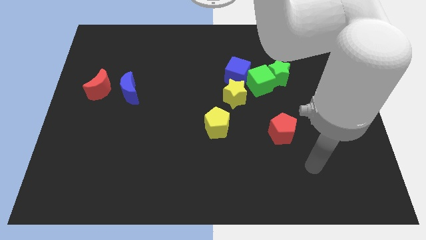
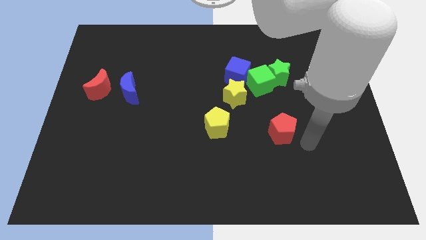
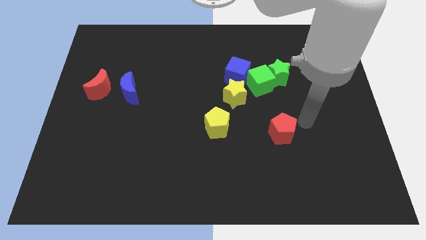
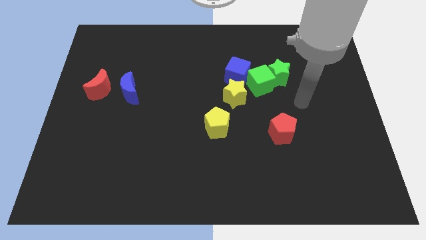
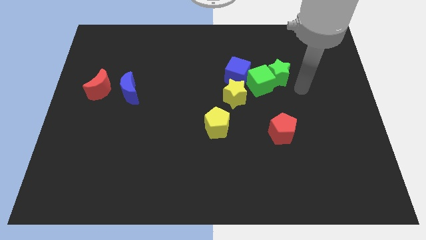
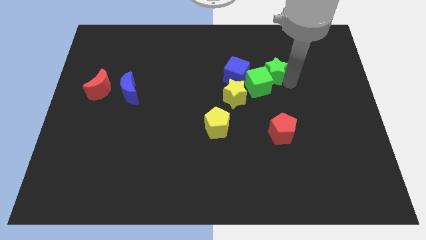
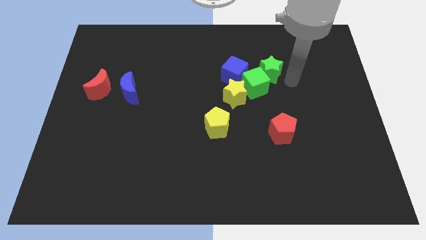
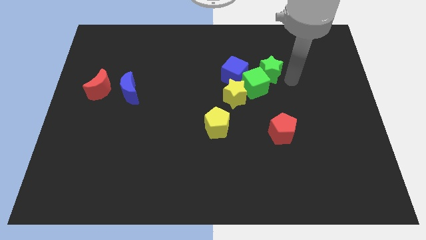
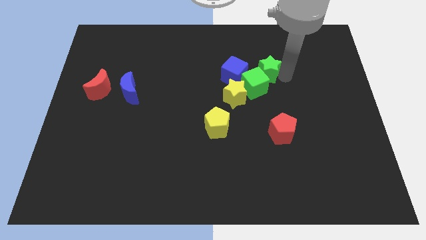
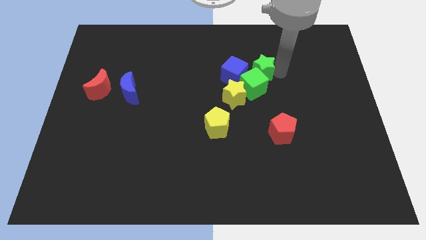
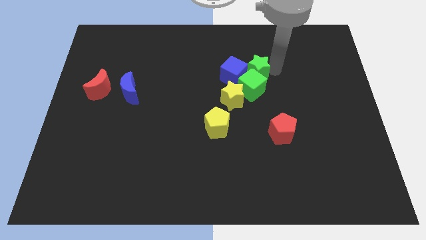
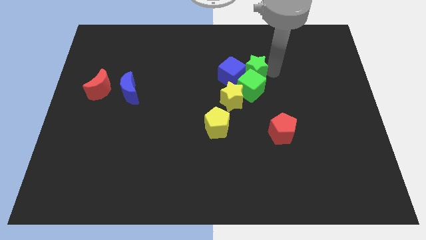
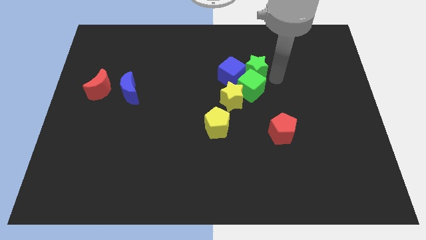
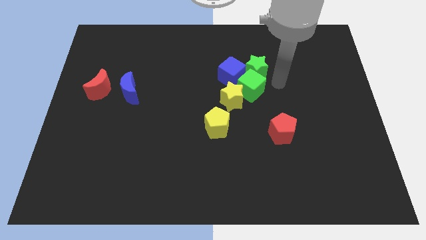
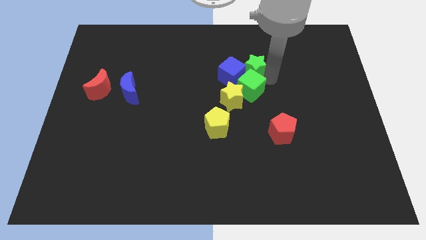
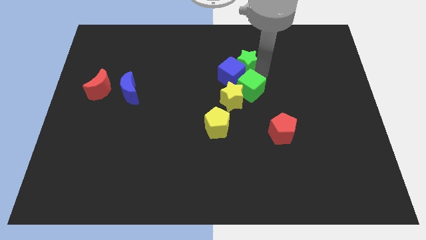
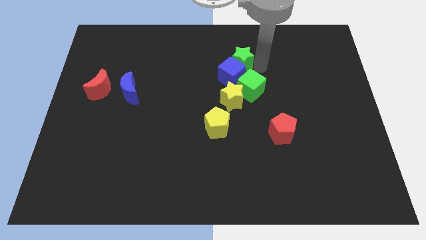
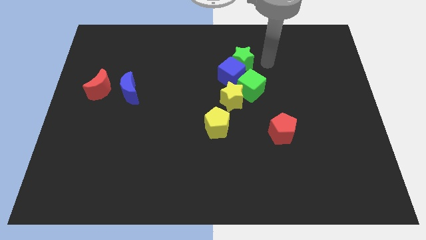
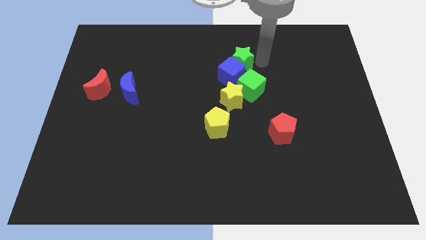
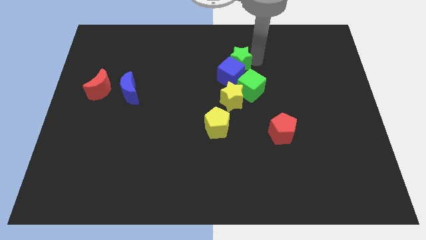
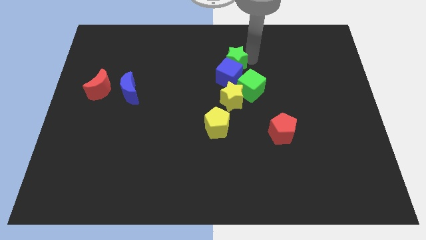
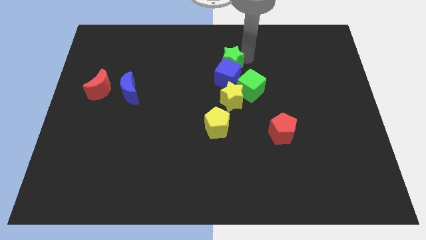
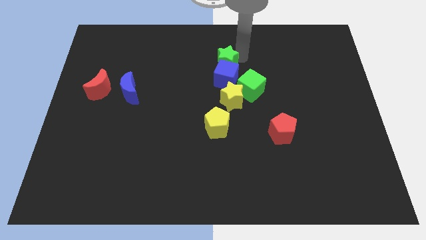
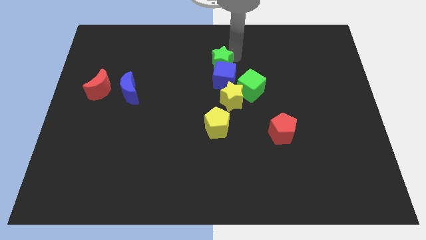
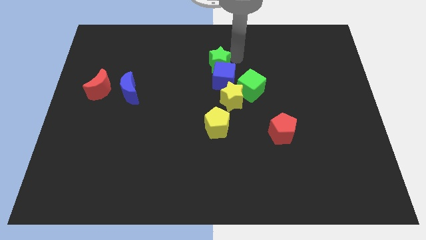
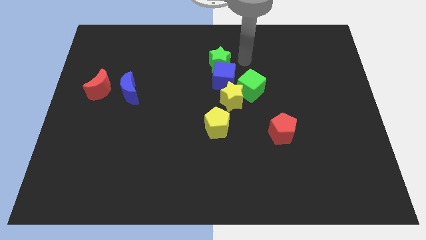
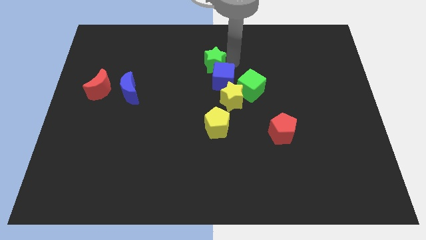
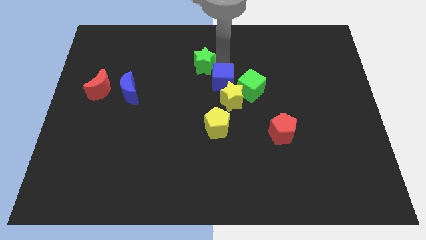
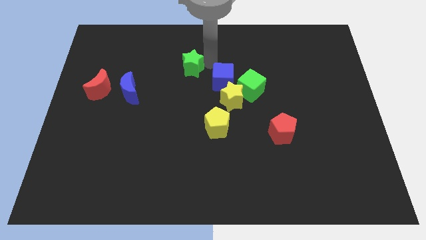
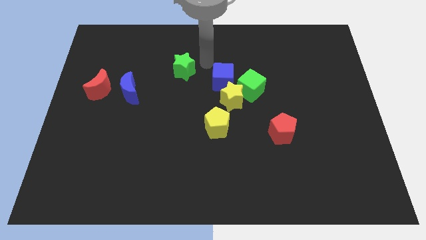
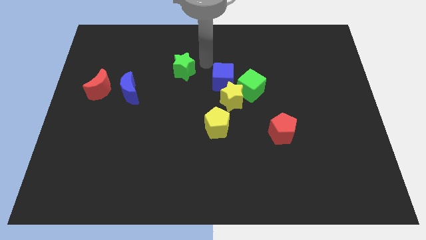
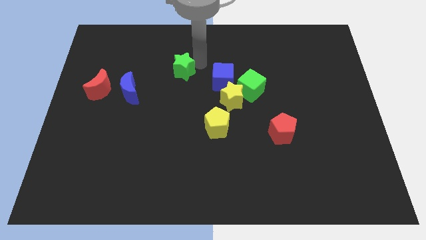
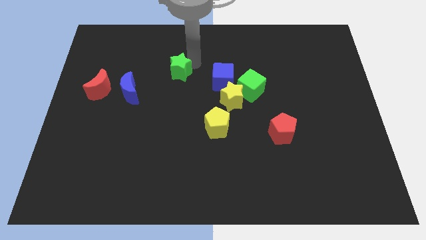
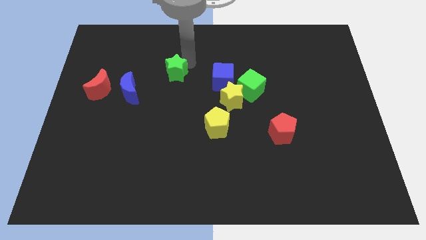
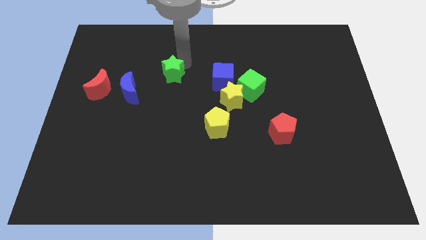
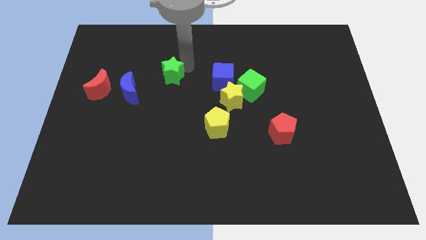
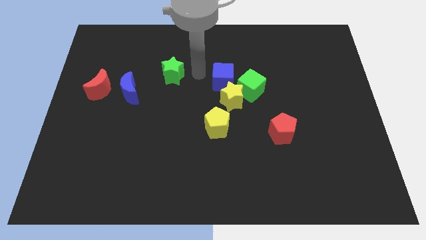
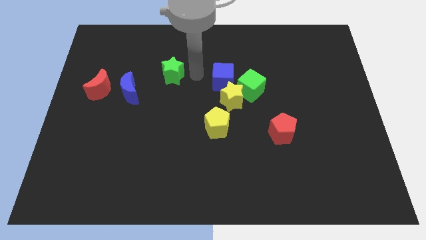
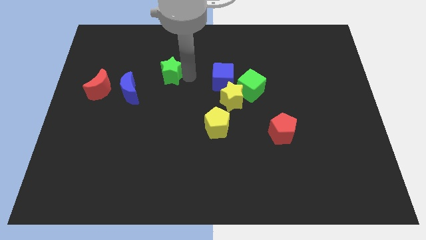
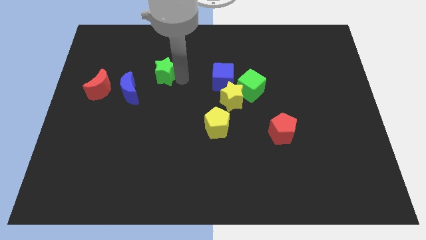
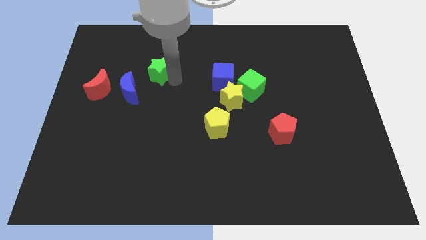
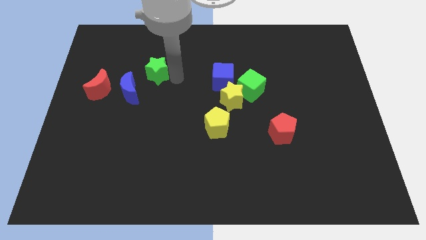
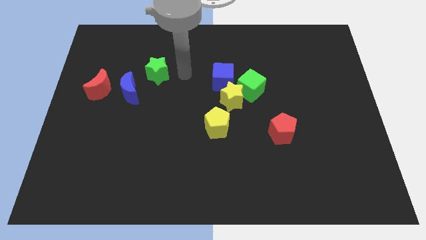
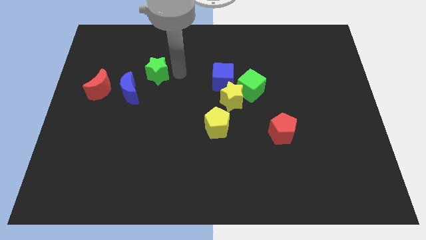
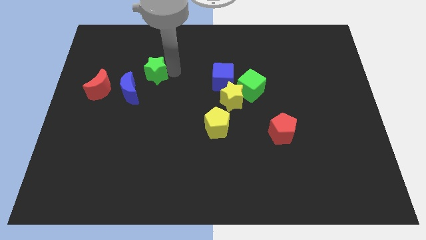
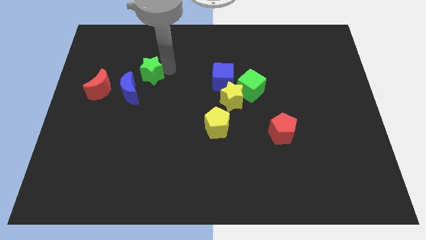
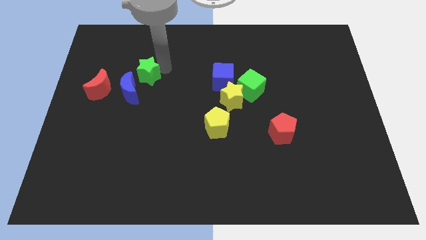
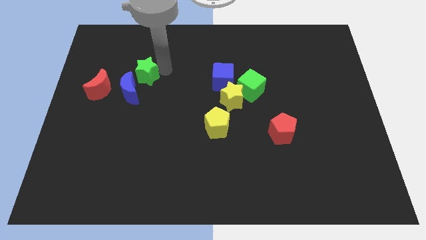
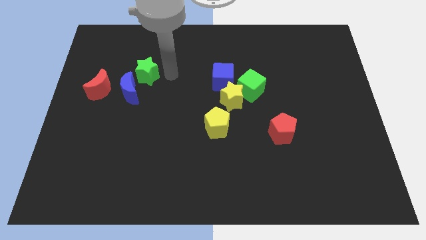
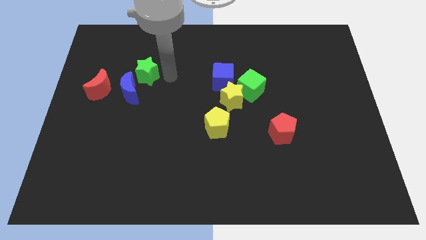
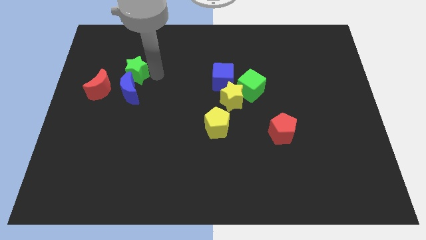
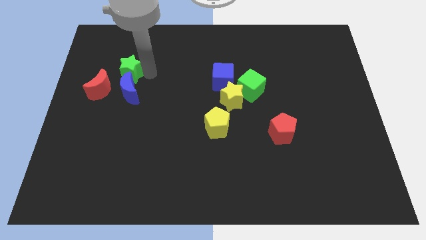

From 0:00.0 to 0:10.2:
put the green star diagonally up and to the left of the blue moon

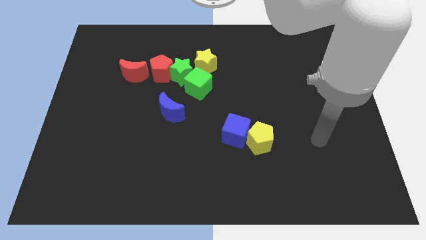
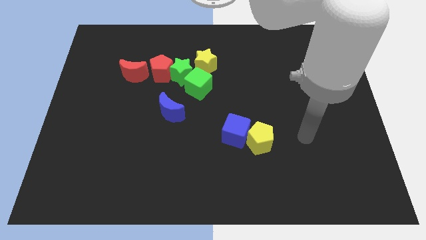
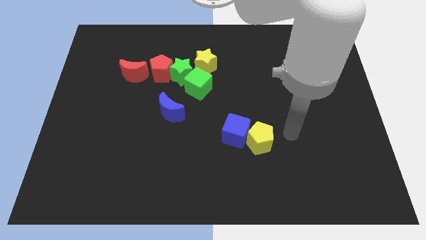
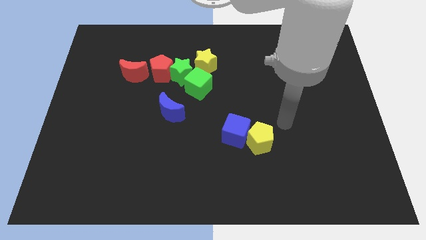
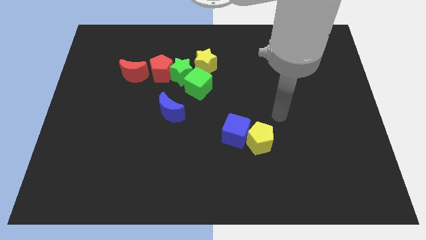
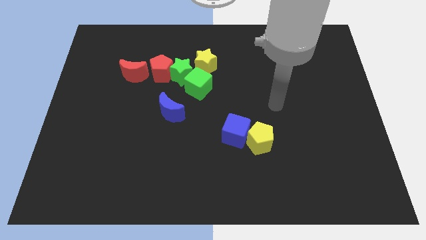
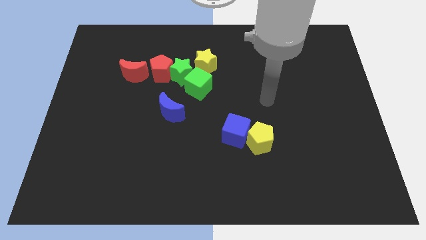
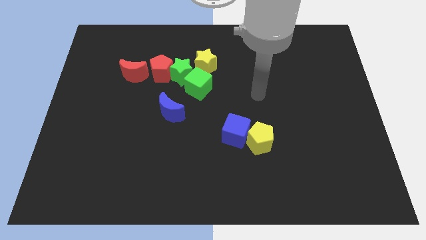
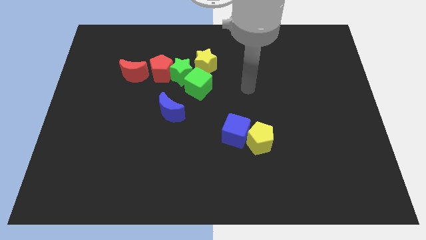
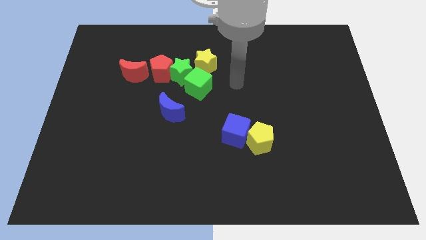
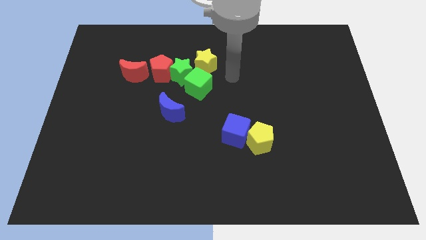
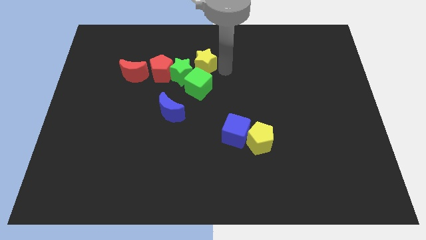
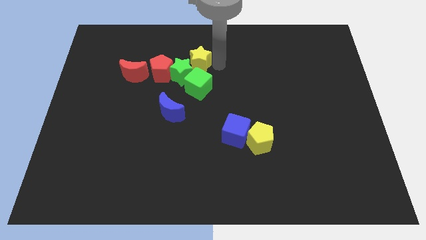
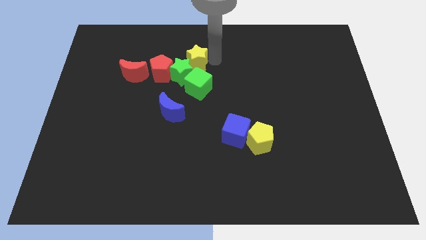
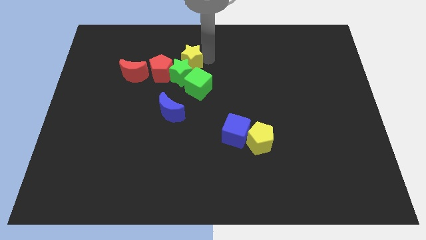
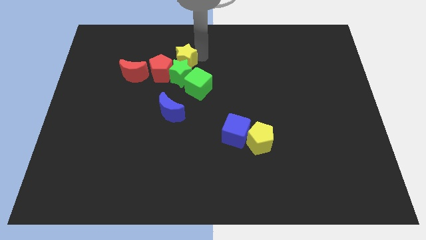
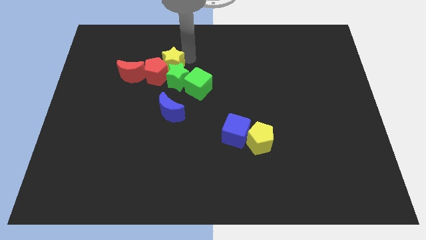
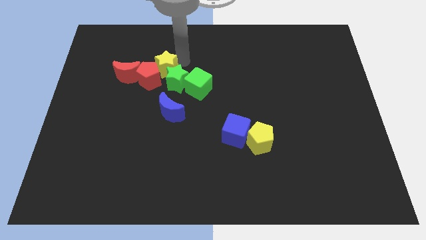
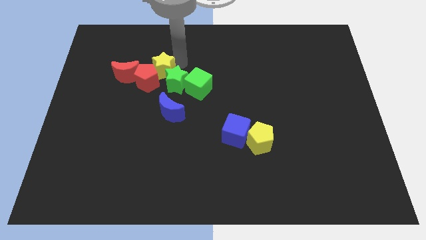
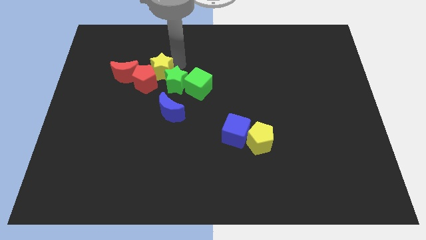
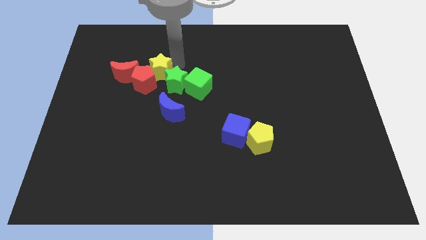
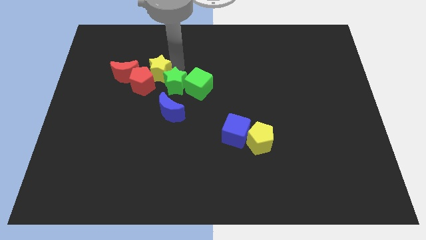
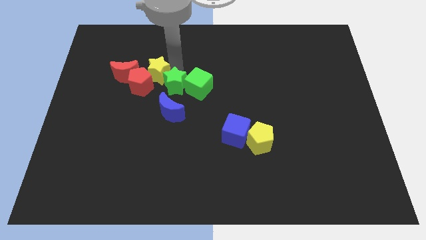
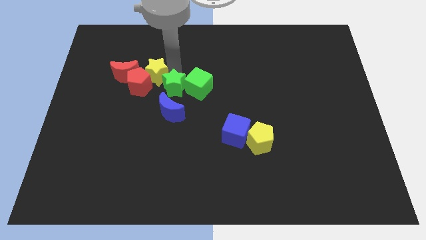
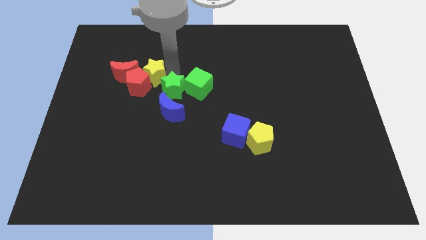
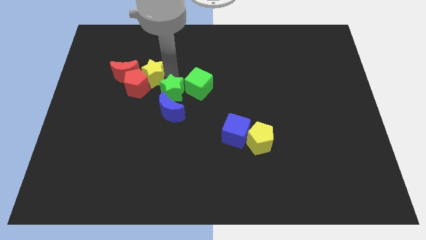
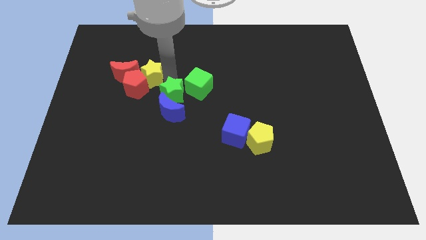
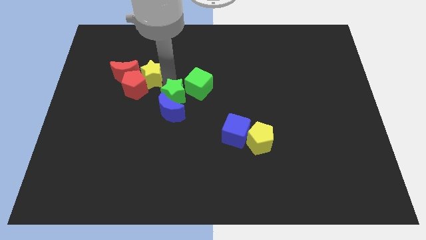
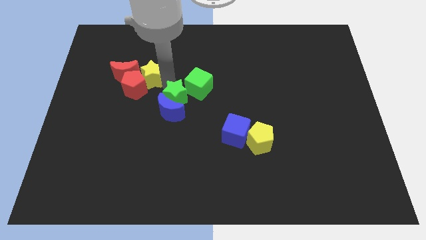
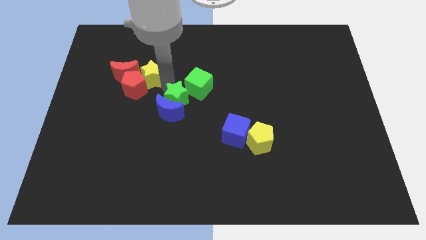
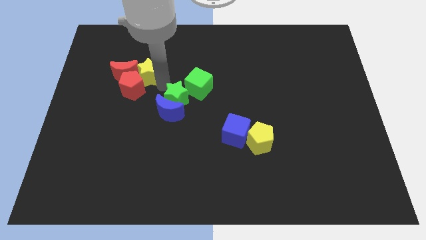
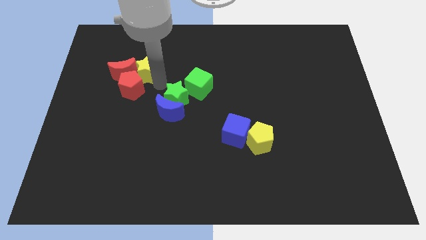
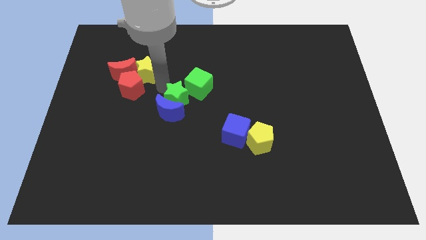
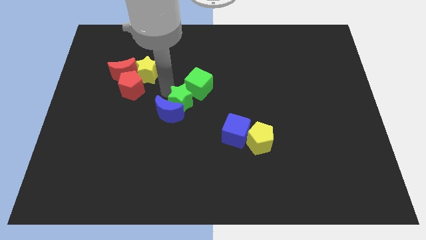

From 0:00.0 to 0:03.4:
move the green star to the bottom of the green cube
